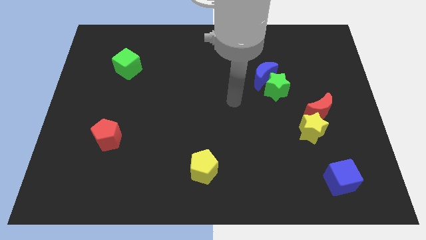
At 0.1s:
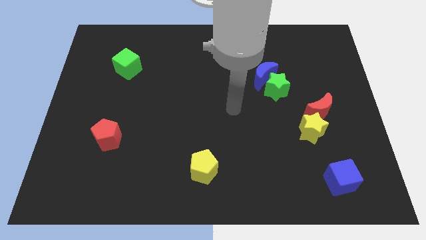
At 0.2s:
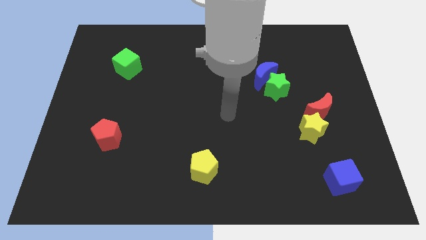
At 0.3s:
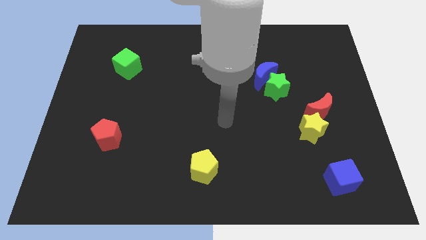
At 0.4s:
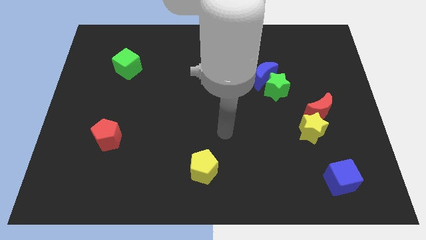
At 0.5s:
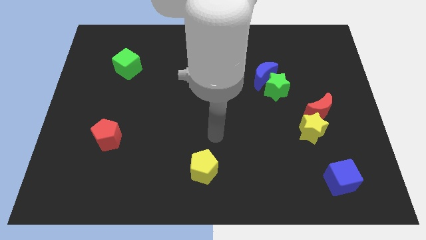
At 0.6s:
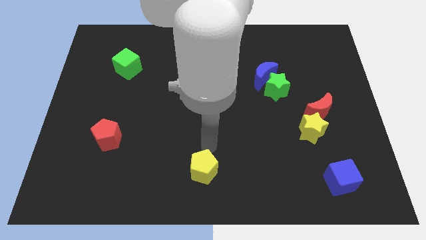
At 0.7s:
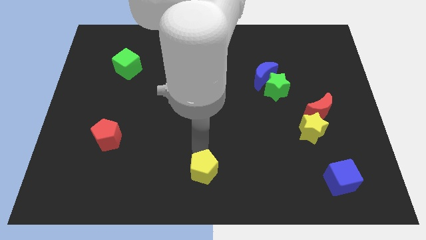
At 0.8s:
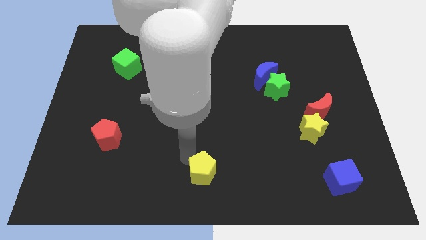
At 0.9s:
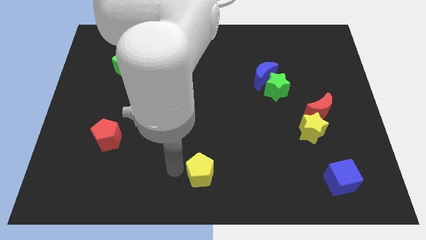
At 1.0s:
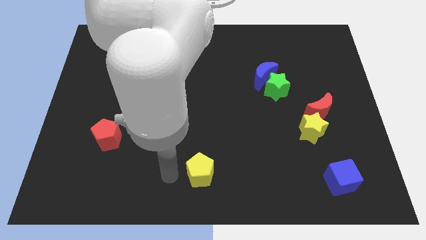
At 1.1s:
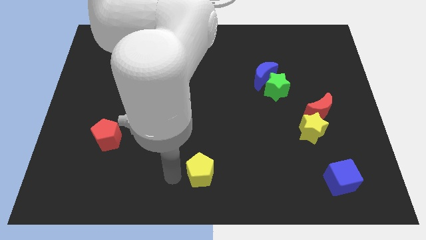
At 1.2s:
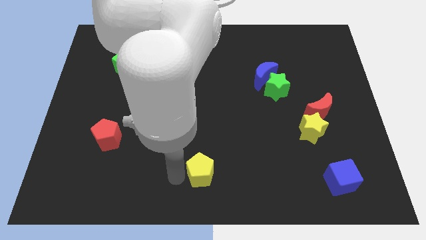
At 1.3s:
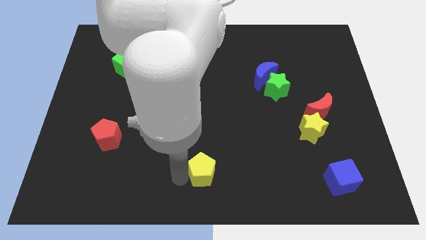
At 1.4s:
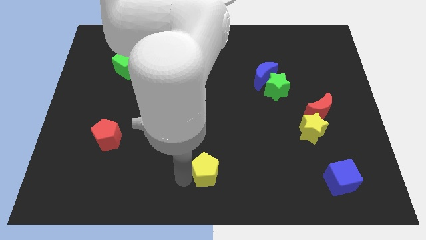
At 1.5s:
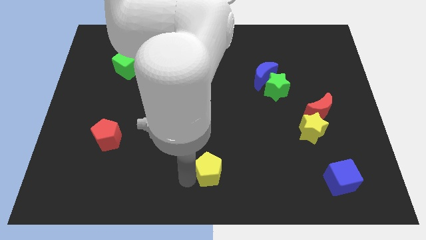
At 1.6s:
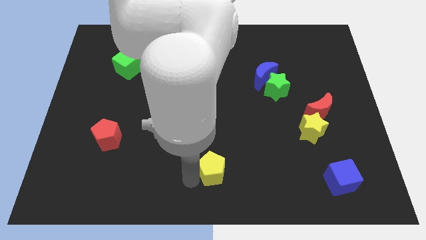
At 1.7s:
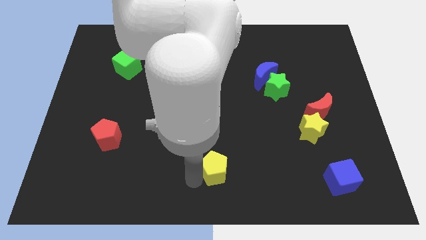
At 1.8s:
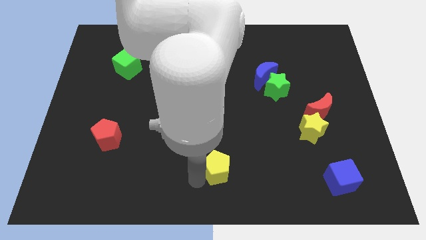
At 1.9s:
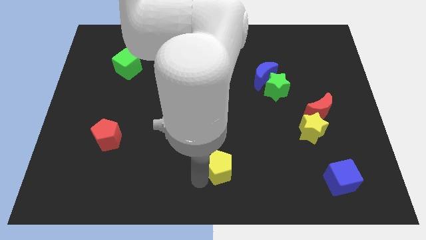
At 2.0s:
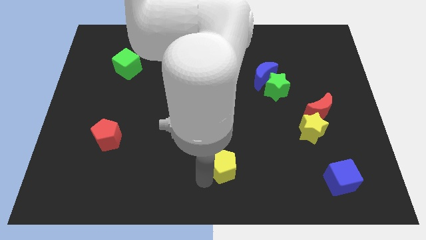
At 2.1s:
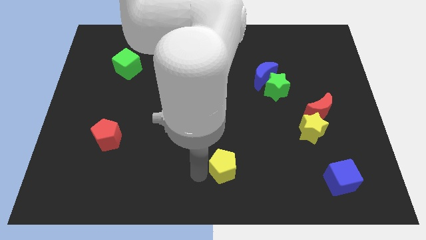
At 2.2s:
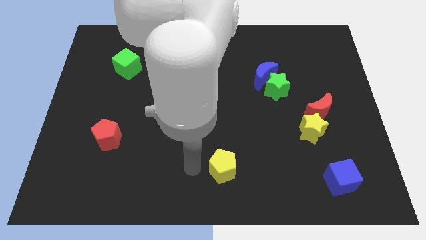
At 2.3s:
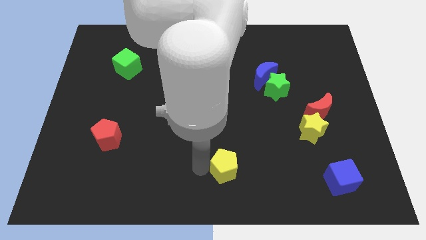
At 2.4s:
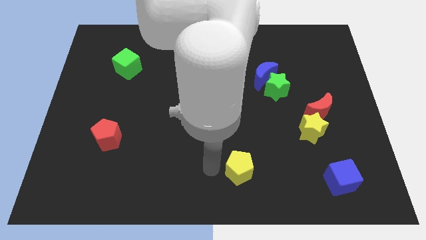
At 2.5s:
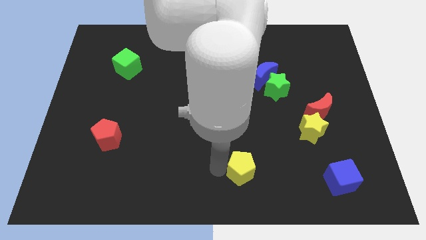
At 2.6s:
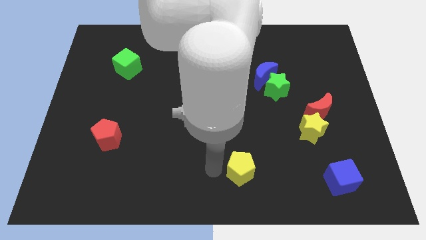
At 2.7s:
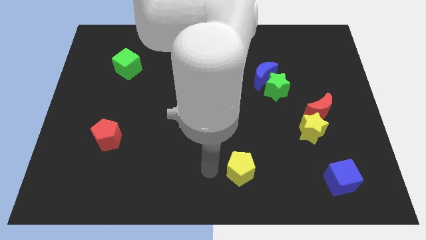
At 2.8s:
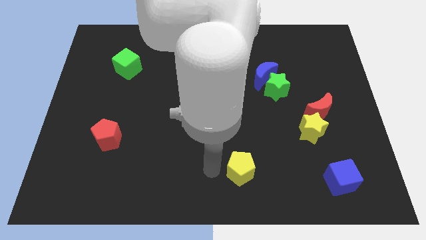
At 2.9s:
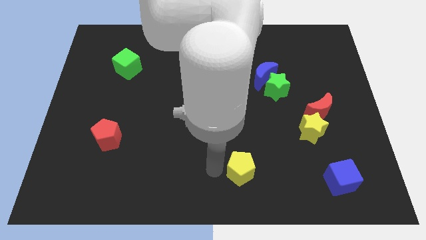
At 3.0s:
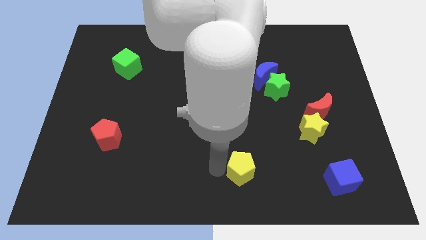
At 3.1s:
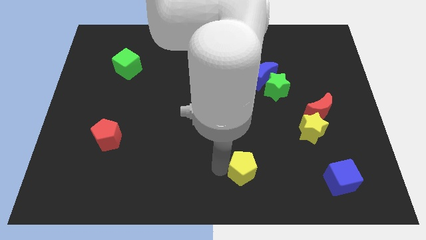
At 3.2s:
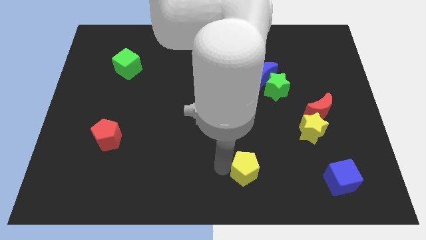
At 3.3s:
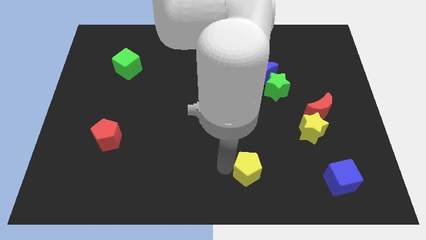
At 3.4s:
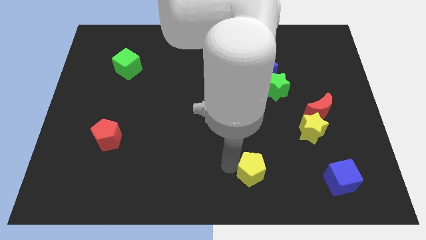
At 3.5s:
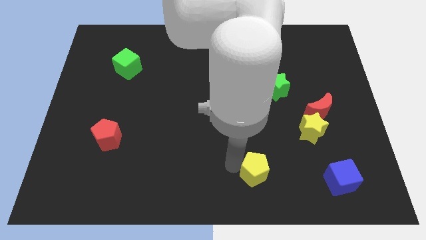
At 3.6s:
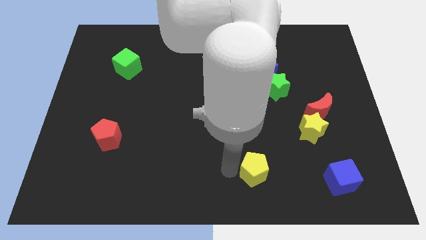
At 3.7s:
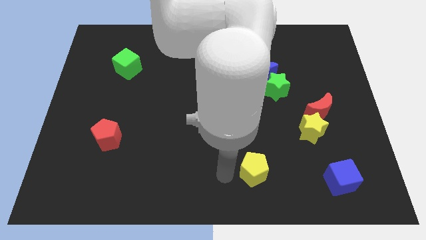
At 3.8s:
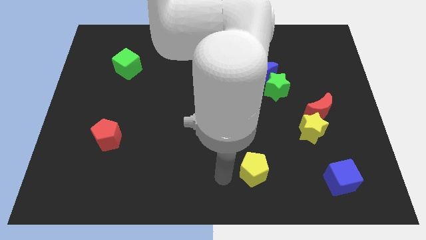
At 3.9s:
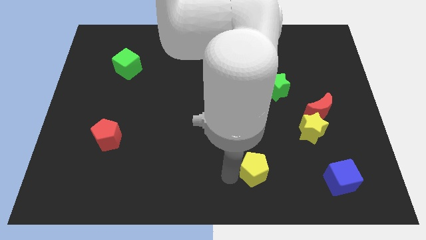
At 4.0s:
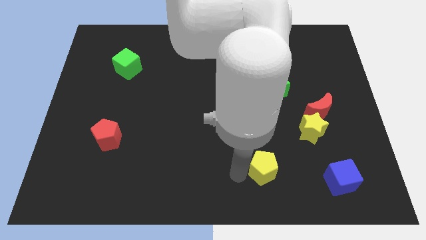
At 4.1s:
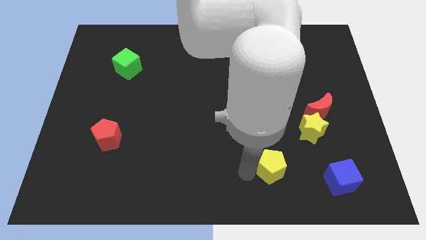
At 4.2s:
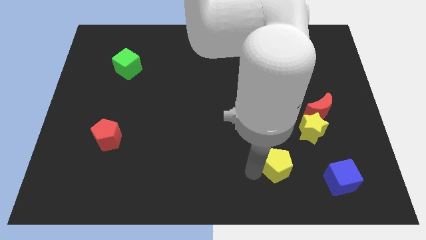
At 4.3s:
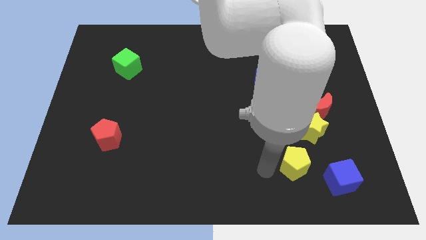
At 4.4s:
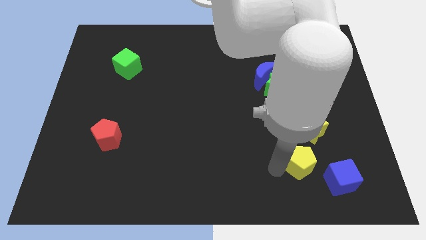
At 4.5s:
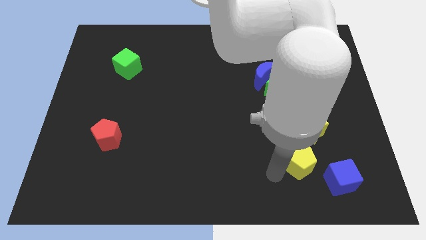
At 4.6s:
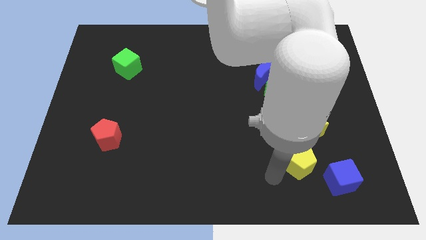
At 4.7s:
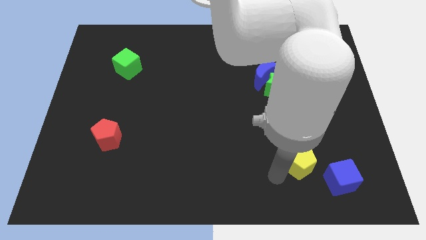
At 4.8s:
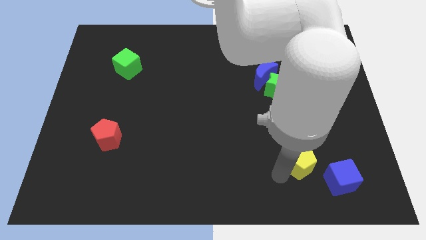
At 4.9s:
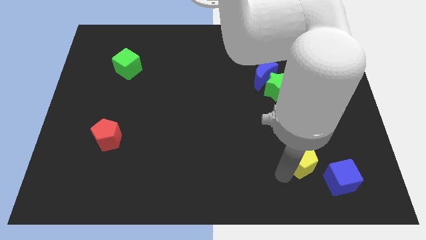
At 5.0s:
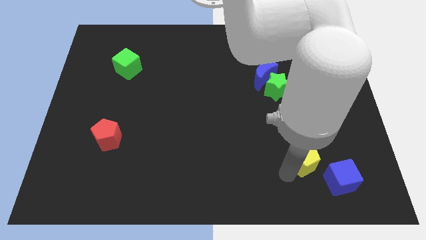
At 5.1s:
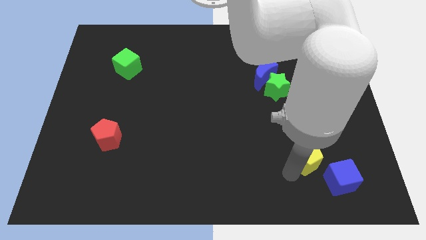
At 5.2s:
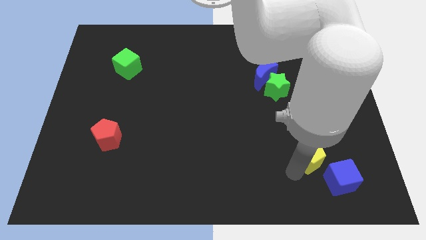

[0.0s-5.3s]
put the yellow pentagon below the red moon

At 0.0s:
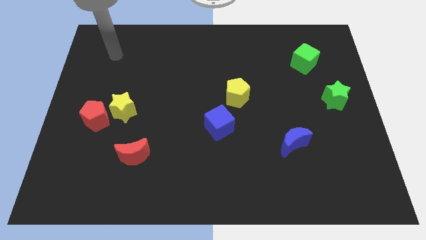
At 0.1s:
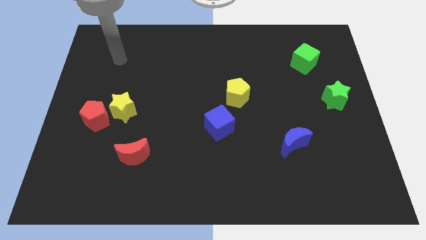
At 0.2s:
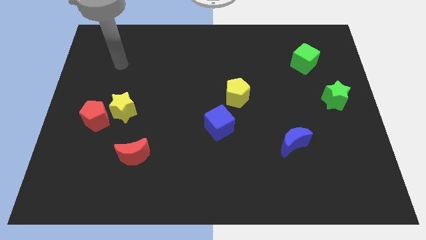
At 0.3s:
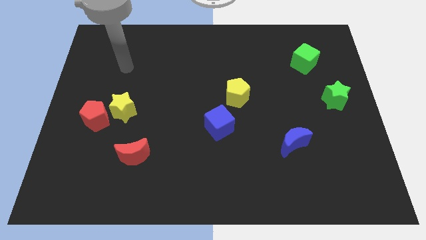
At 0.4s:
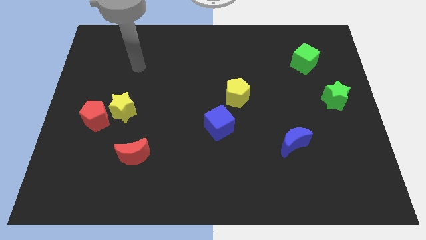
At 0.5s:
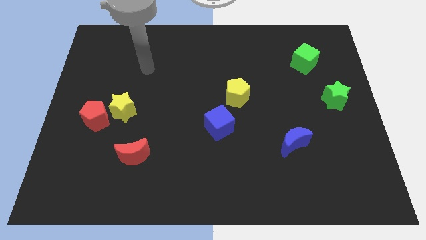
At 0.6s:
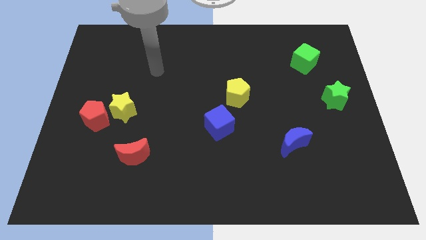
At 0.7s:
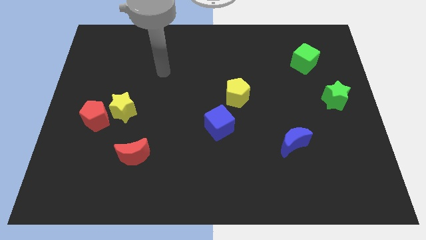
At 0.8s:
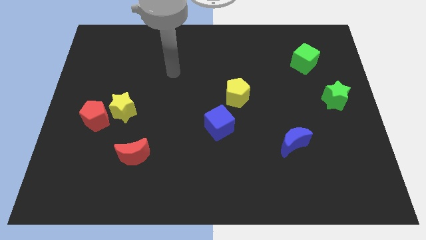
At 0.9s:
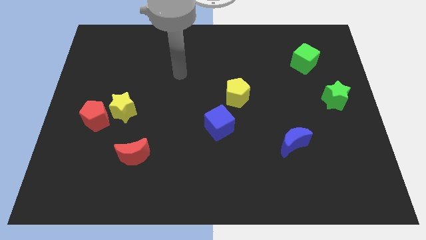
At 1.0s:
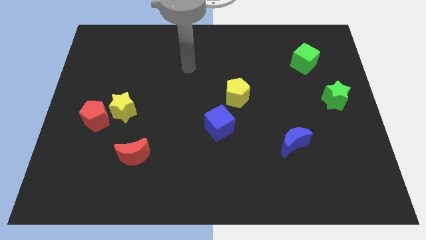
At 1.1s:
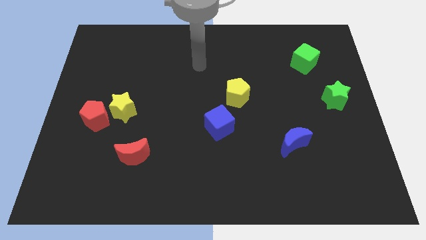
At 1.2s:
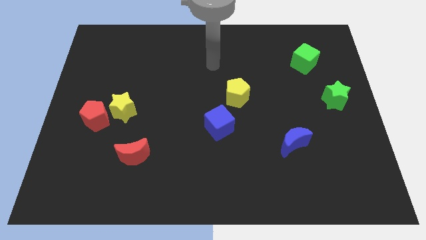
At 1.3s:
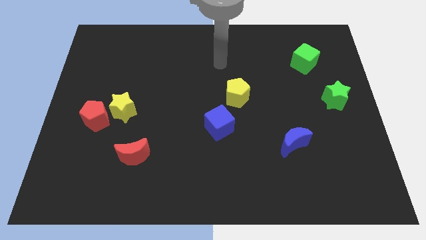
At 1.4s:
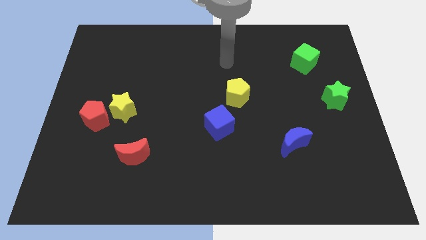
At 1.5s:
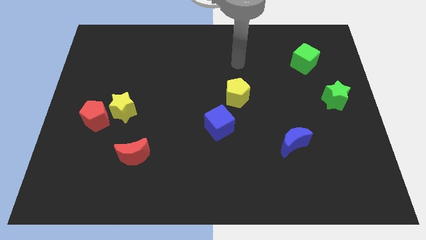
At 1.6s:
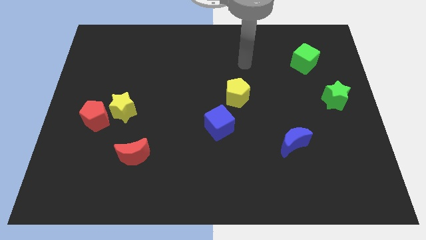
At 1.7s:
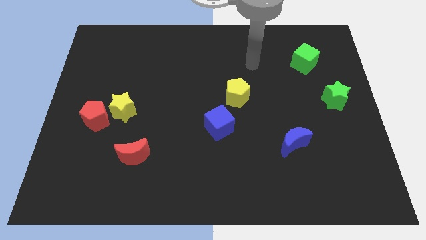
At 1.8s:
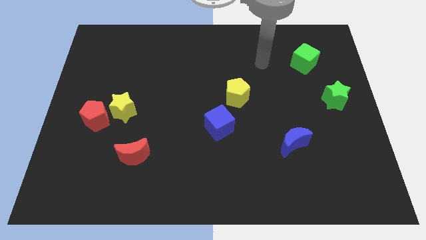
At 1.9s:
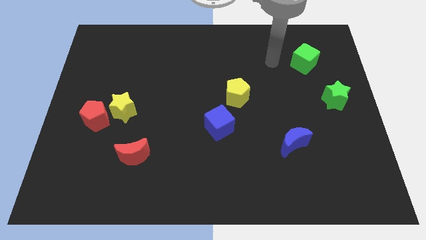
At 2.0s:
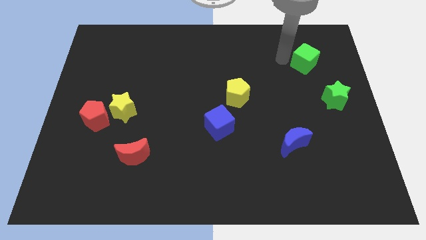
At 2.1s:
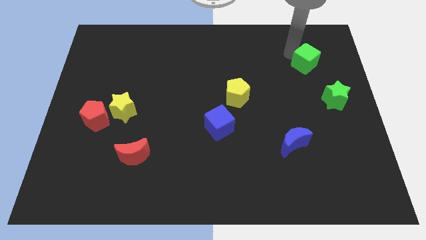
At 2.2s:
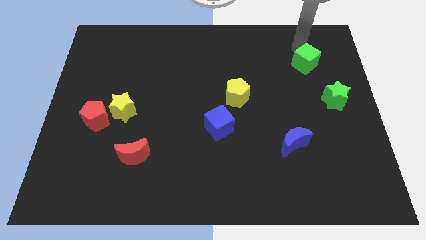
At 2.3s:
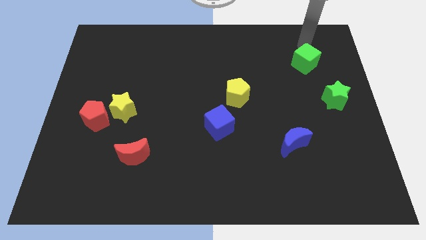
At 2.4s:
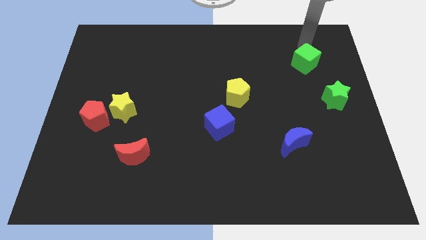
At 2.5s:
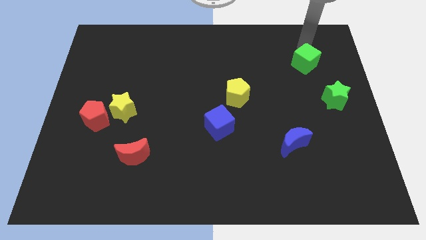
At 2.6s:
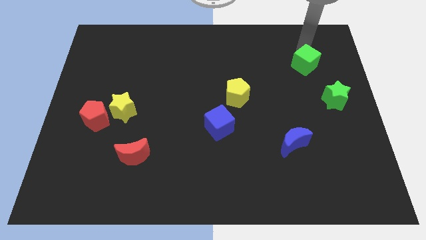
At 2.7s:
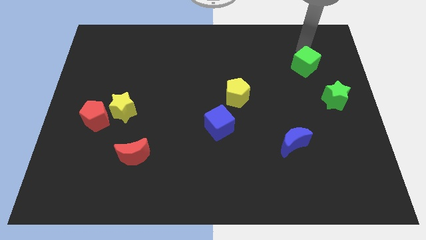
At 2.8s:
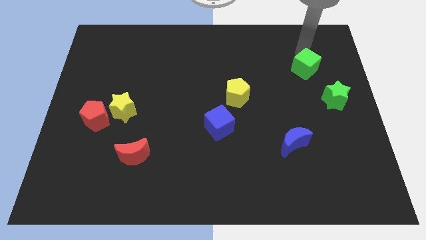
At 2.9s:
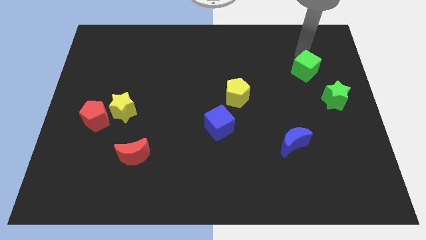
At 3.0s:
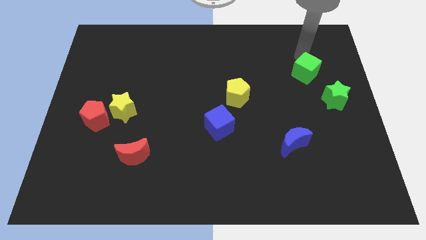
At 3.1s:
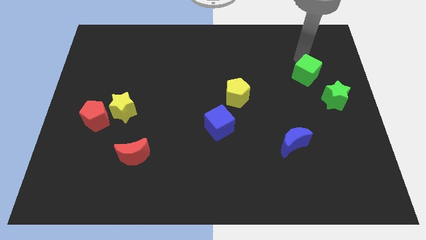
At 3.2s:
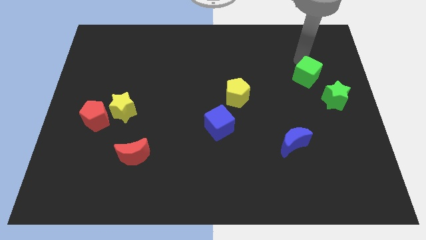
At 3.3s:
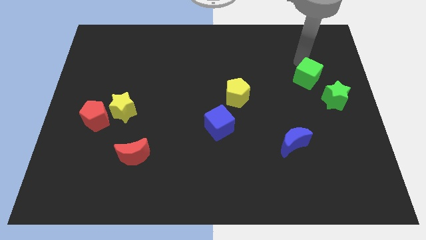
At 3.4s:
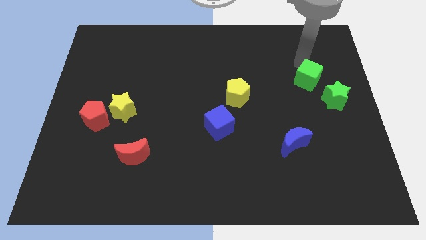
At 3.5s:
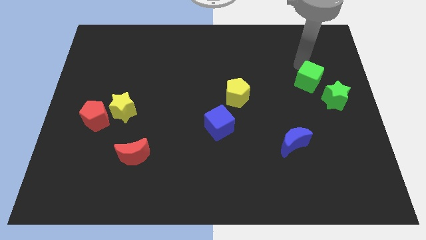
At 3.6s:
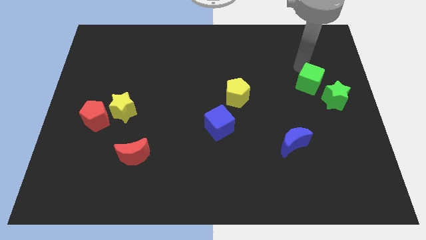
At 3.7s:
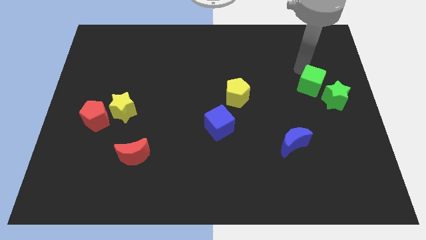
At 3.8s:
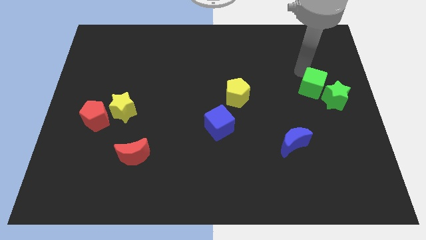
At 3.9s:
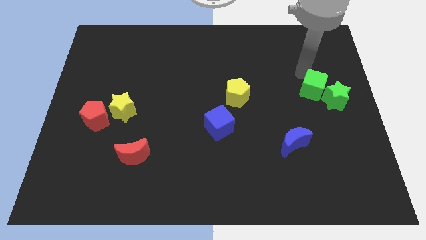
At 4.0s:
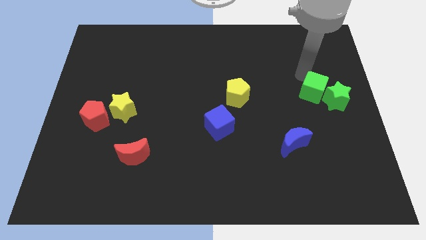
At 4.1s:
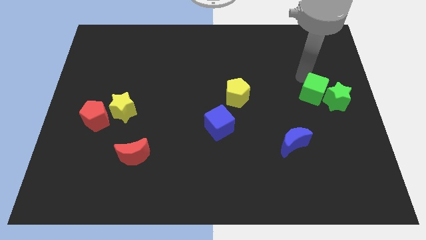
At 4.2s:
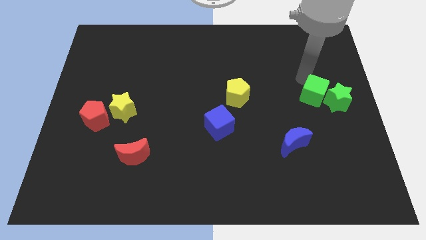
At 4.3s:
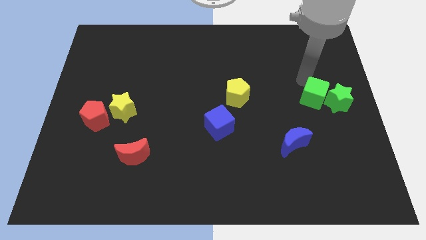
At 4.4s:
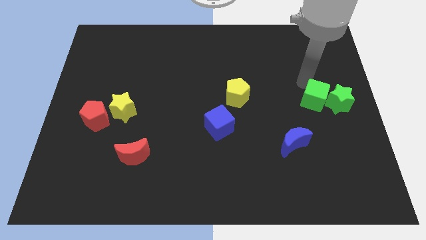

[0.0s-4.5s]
move the green cube to the bottom left side of the green star
